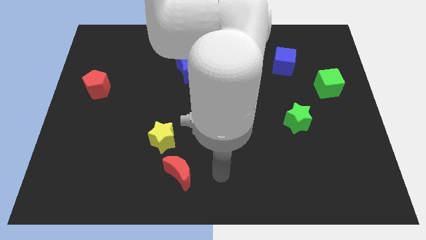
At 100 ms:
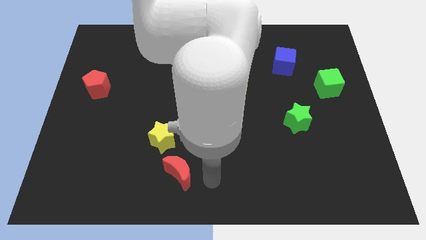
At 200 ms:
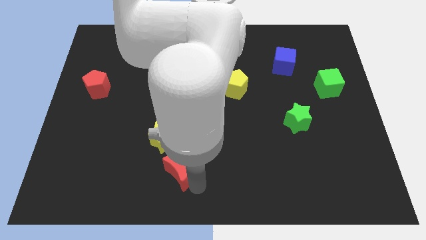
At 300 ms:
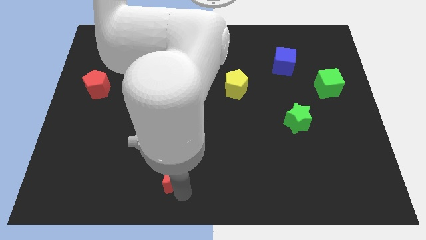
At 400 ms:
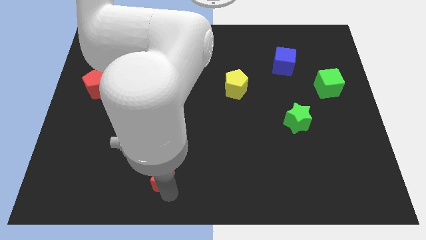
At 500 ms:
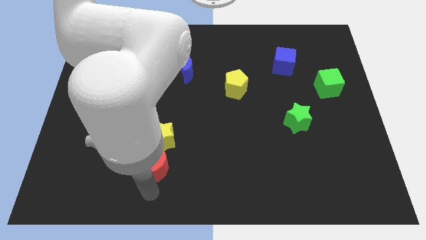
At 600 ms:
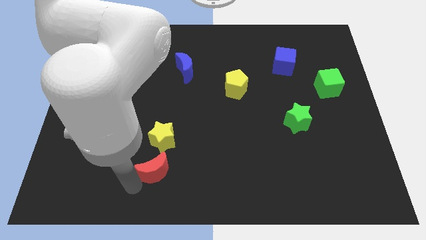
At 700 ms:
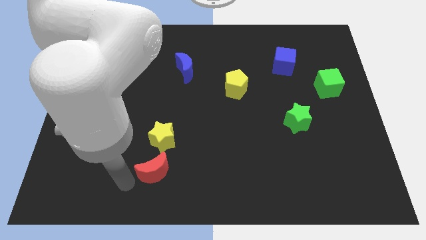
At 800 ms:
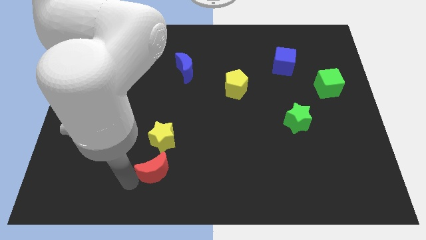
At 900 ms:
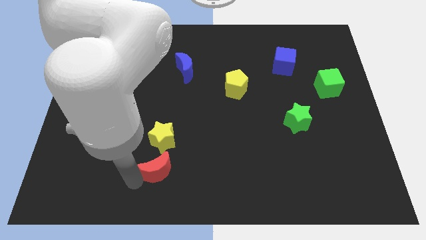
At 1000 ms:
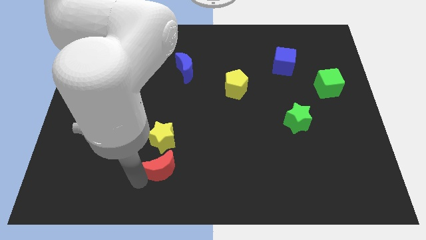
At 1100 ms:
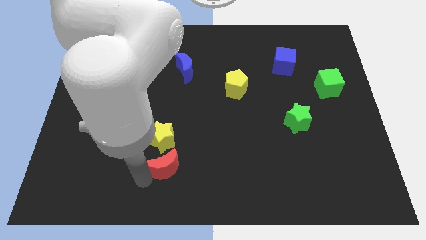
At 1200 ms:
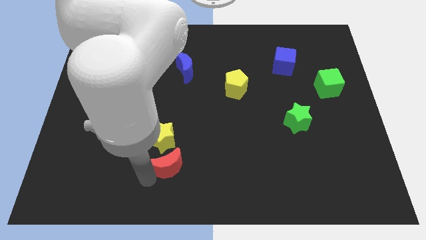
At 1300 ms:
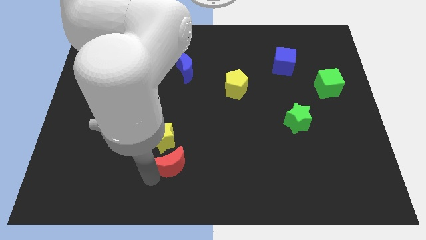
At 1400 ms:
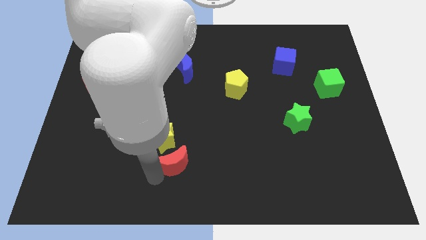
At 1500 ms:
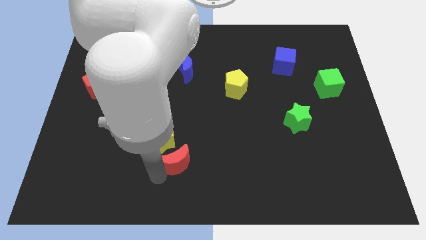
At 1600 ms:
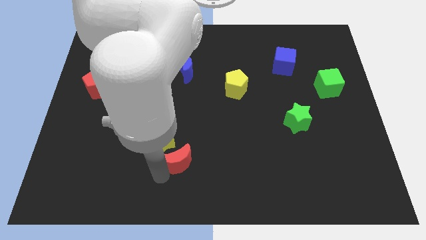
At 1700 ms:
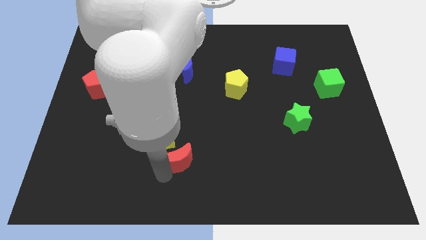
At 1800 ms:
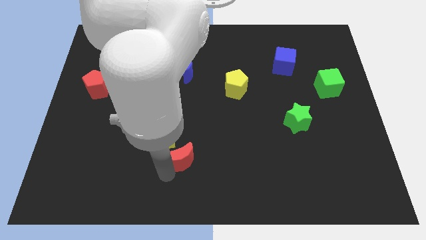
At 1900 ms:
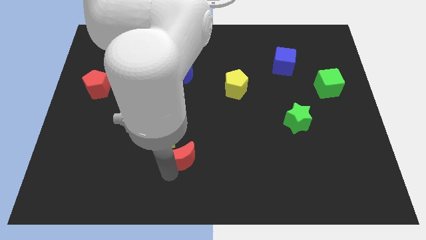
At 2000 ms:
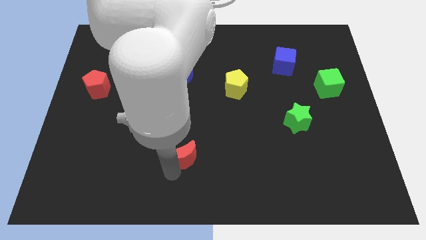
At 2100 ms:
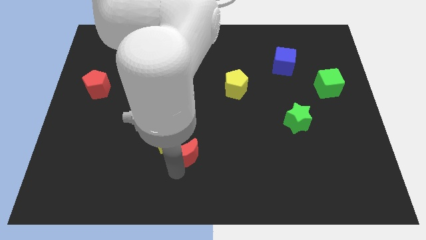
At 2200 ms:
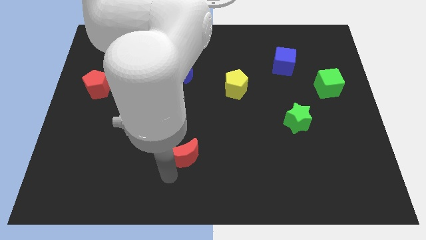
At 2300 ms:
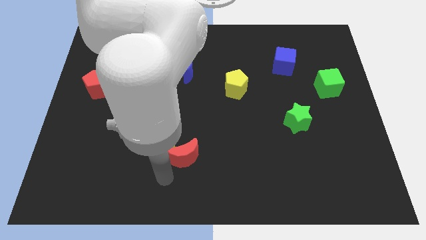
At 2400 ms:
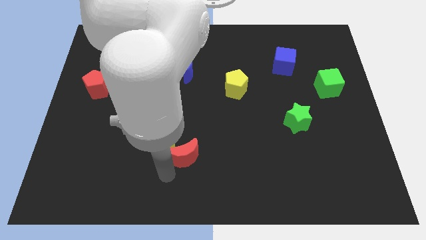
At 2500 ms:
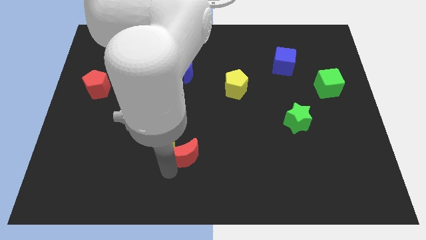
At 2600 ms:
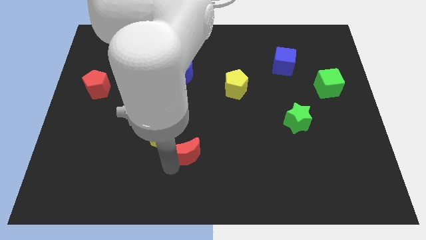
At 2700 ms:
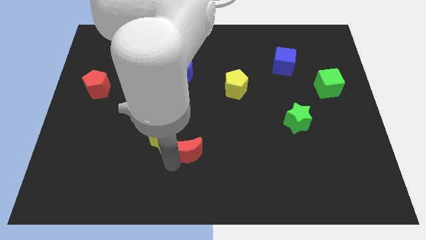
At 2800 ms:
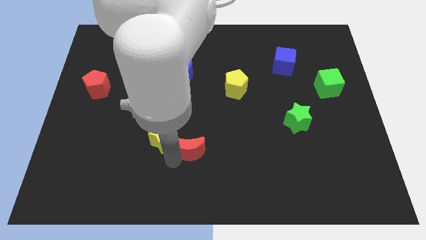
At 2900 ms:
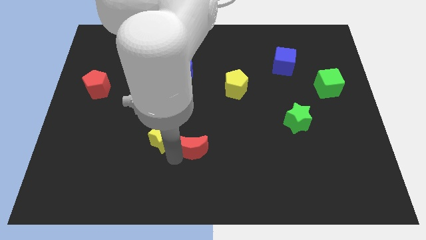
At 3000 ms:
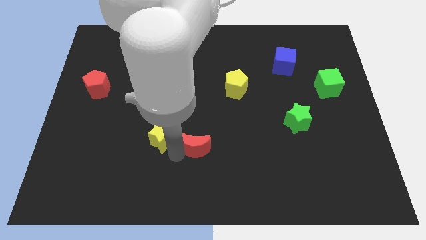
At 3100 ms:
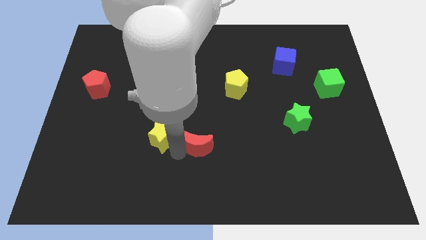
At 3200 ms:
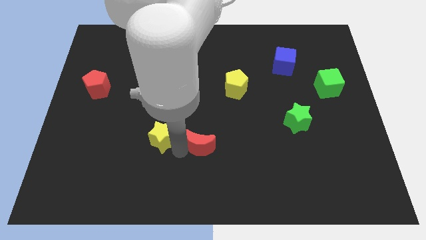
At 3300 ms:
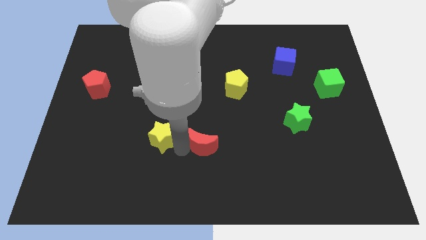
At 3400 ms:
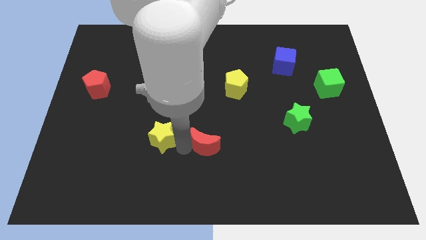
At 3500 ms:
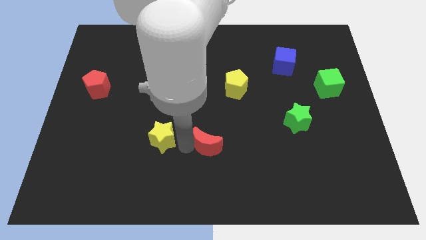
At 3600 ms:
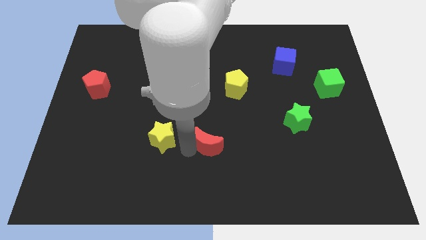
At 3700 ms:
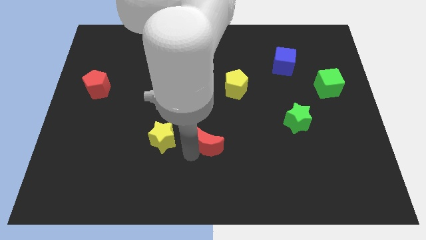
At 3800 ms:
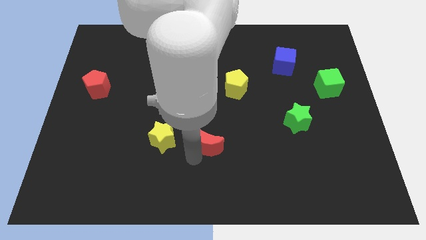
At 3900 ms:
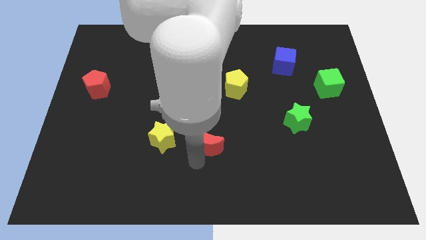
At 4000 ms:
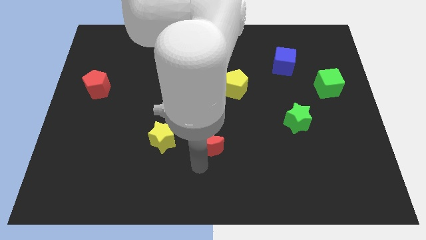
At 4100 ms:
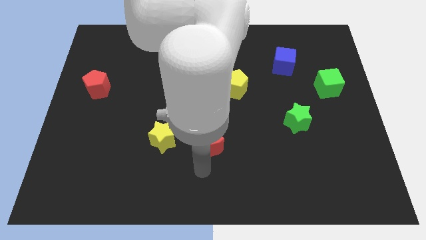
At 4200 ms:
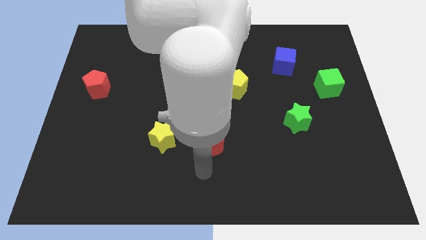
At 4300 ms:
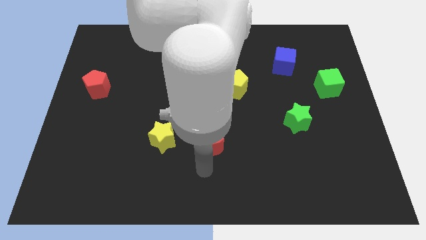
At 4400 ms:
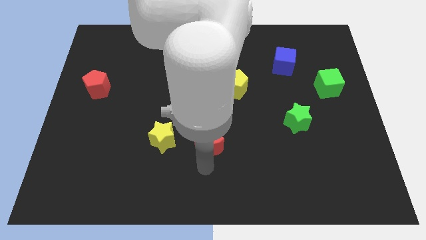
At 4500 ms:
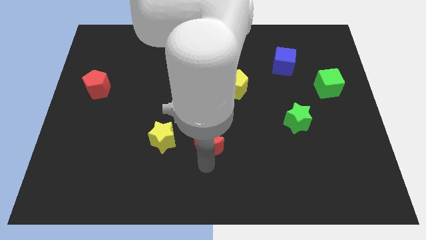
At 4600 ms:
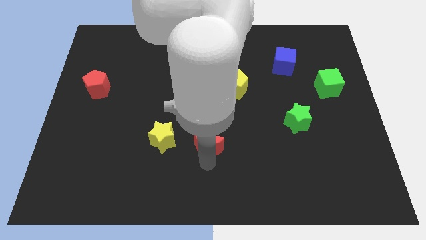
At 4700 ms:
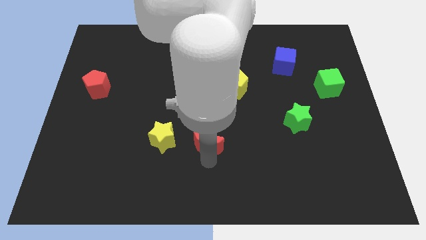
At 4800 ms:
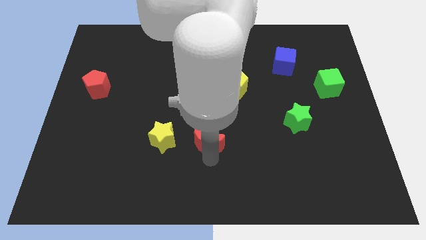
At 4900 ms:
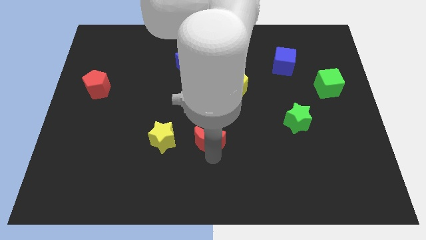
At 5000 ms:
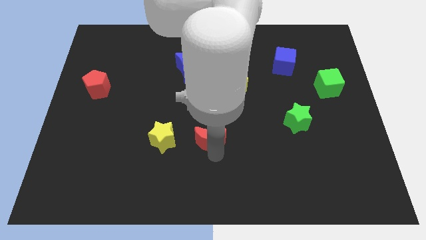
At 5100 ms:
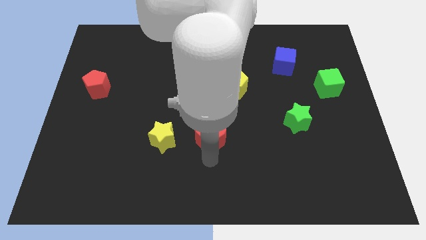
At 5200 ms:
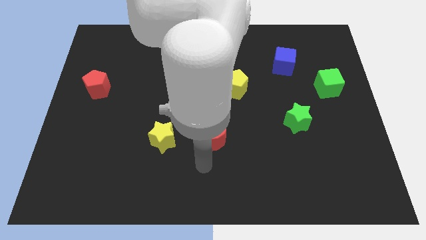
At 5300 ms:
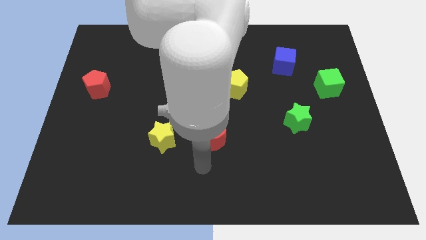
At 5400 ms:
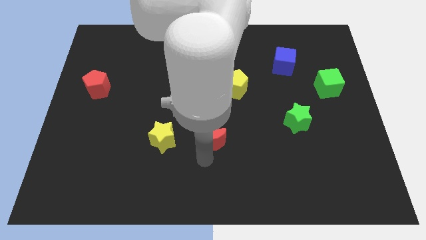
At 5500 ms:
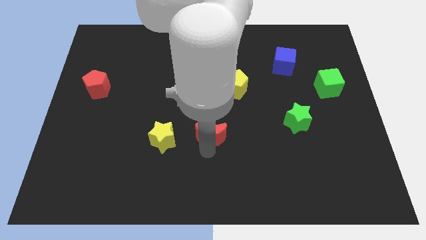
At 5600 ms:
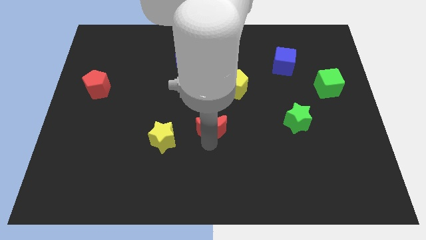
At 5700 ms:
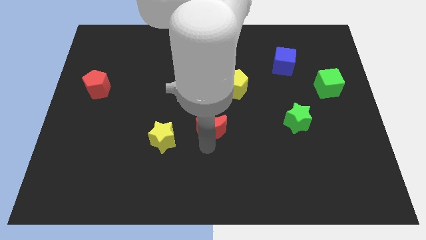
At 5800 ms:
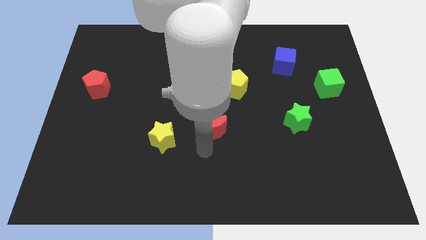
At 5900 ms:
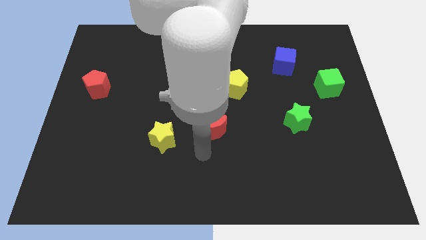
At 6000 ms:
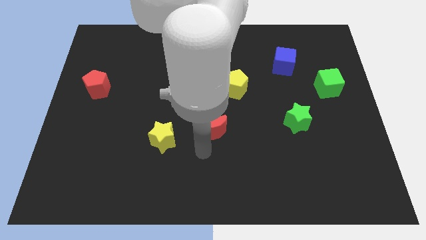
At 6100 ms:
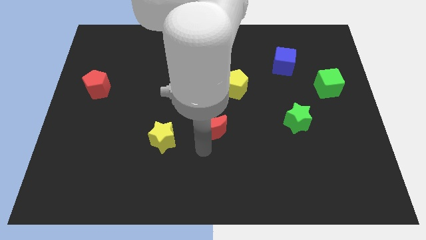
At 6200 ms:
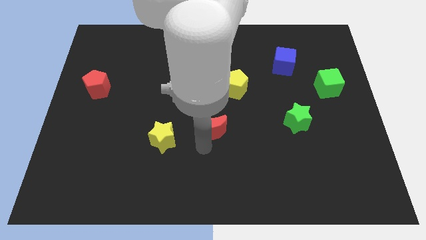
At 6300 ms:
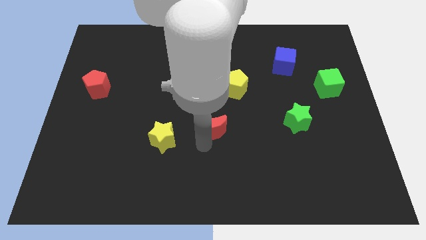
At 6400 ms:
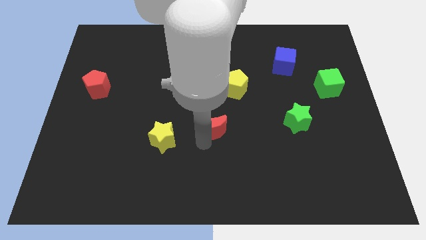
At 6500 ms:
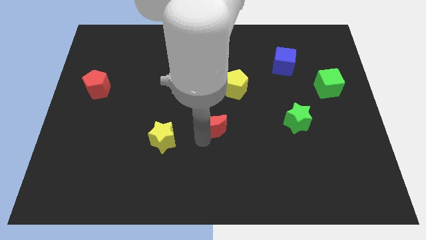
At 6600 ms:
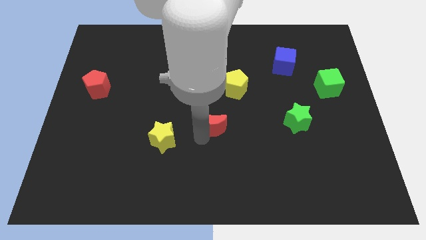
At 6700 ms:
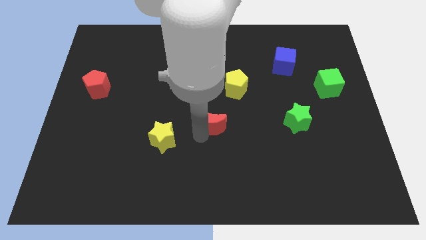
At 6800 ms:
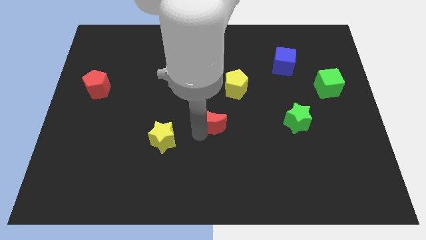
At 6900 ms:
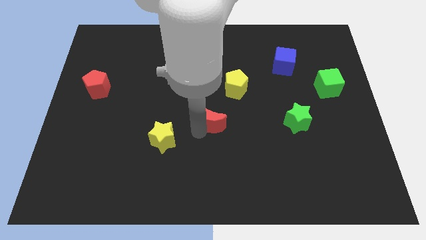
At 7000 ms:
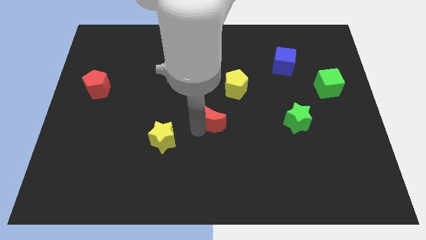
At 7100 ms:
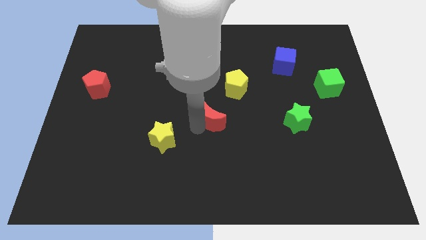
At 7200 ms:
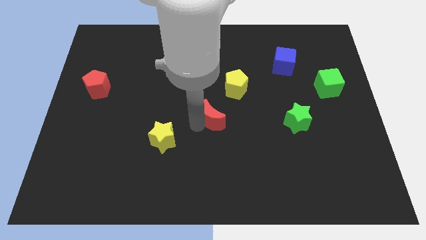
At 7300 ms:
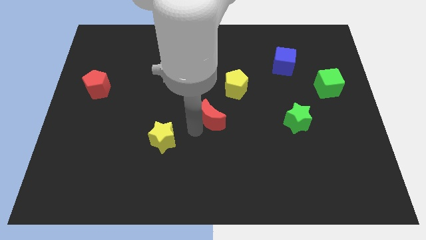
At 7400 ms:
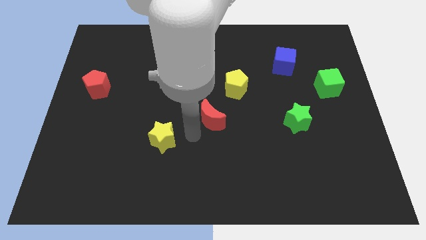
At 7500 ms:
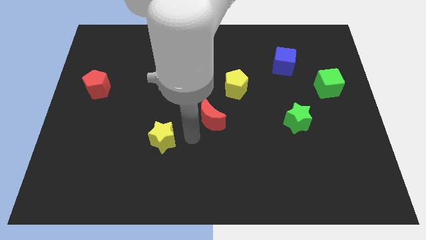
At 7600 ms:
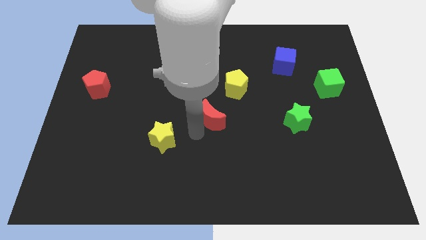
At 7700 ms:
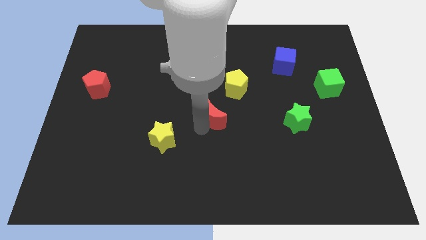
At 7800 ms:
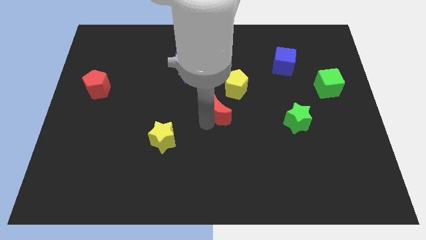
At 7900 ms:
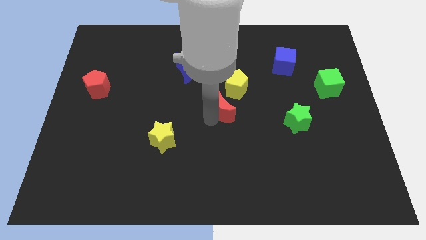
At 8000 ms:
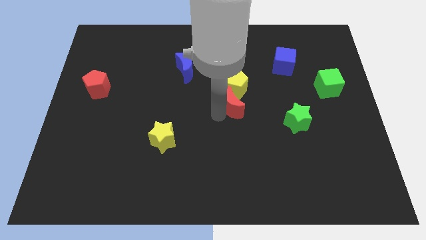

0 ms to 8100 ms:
put the red moon next to the yellow pentagon
